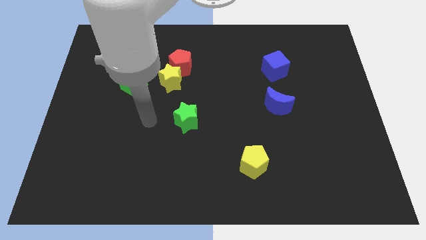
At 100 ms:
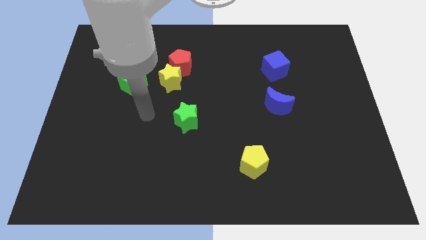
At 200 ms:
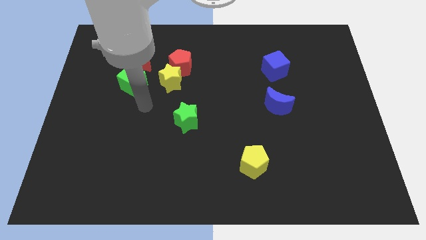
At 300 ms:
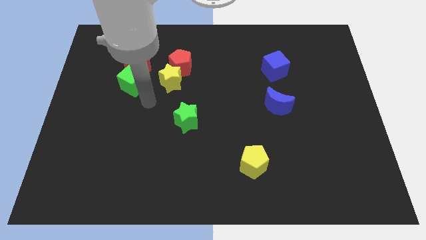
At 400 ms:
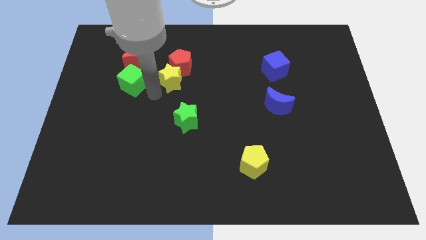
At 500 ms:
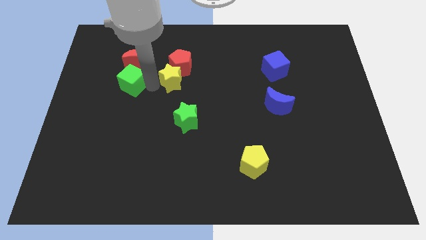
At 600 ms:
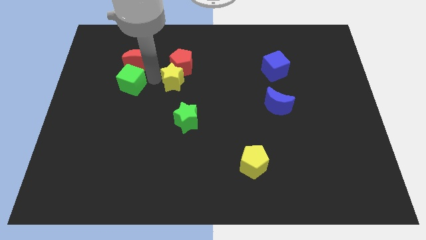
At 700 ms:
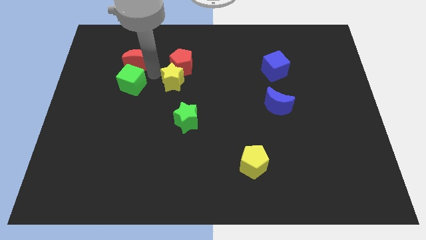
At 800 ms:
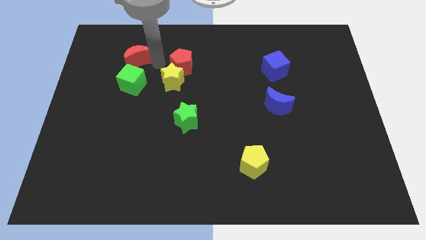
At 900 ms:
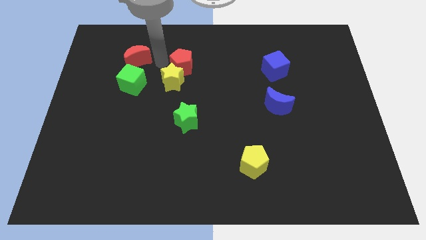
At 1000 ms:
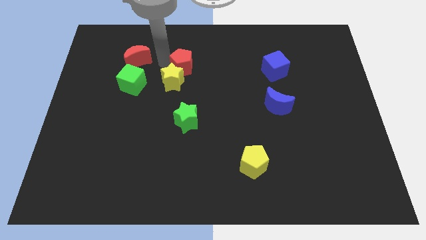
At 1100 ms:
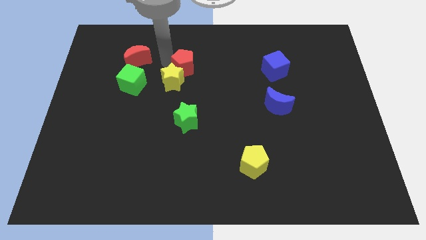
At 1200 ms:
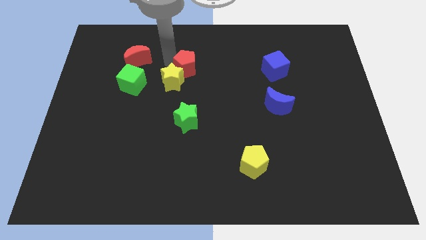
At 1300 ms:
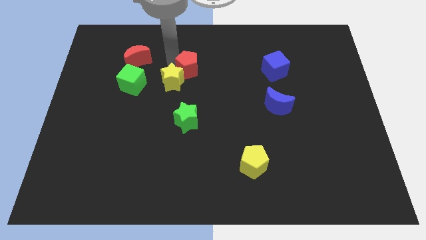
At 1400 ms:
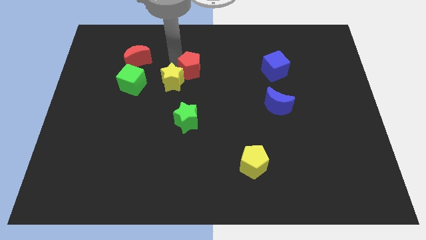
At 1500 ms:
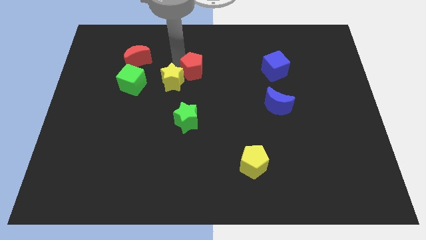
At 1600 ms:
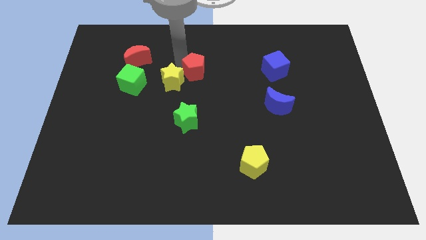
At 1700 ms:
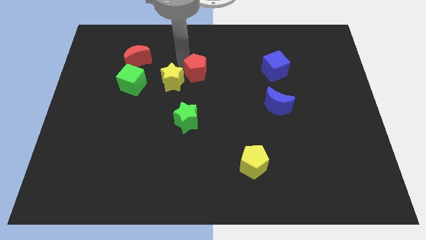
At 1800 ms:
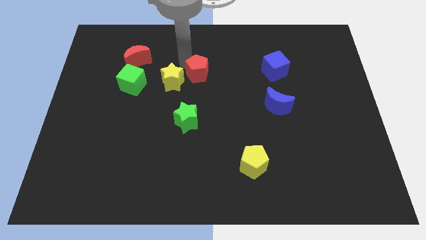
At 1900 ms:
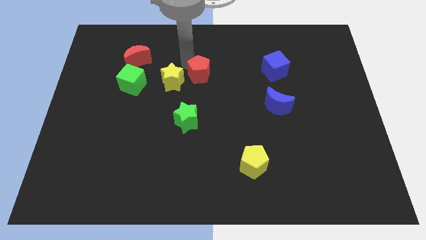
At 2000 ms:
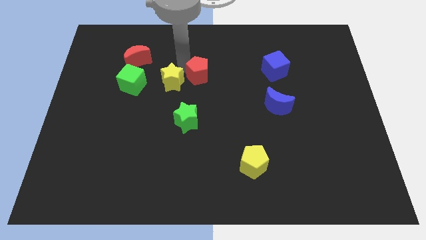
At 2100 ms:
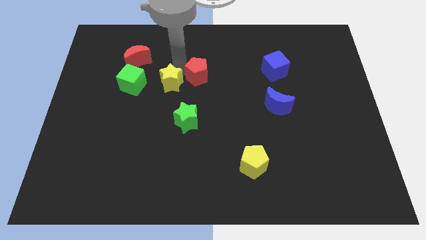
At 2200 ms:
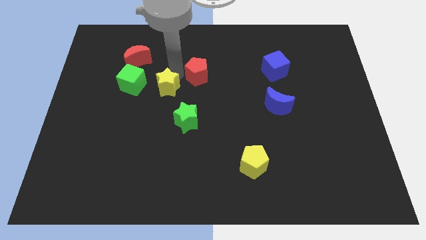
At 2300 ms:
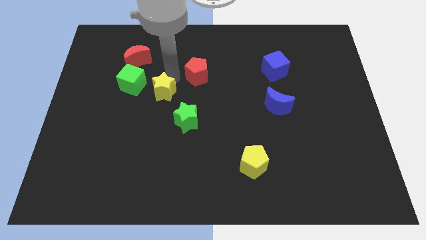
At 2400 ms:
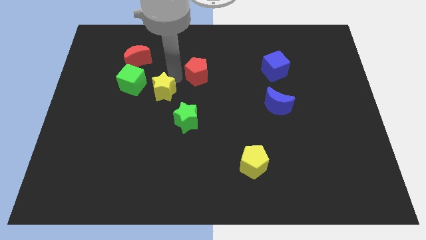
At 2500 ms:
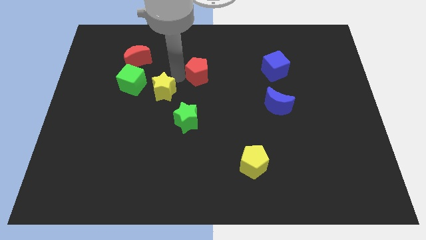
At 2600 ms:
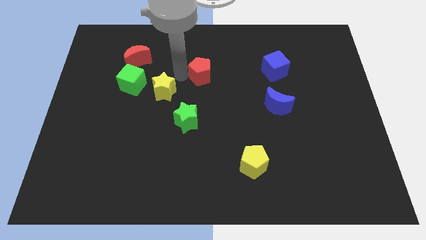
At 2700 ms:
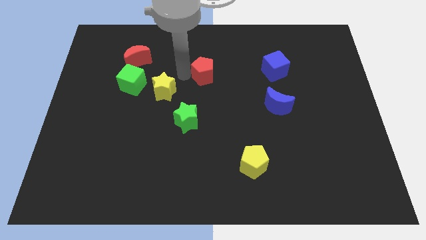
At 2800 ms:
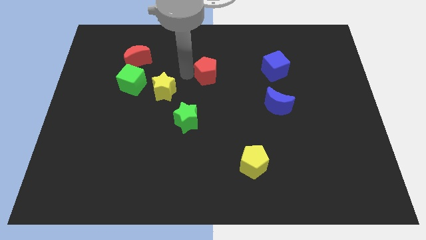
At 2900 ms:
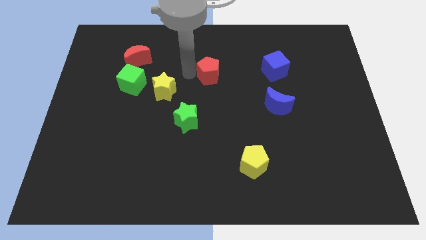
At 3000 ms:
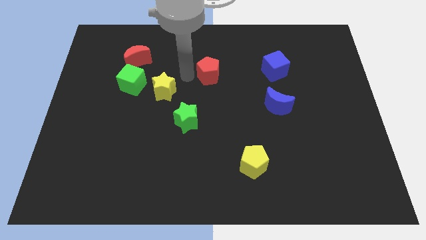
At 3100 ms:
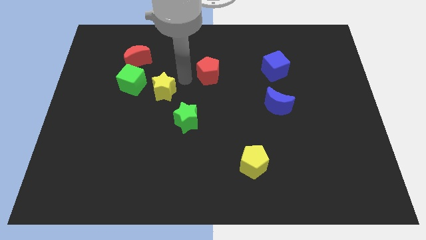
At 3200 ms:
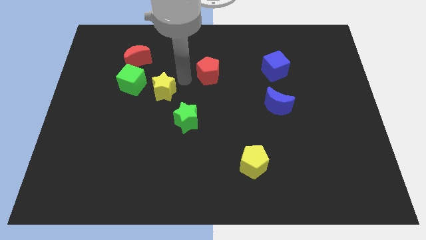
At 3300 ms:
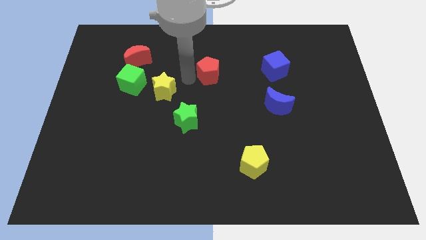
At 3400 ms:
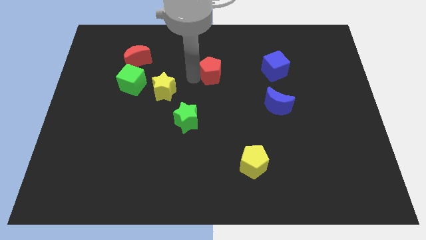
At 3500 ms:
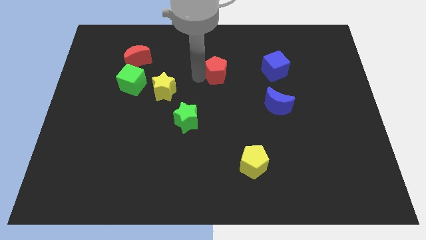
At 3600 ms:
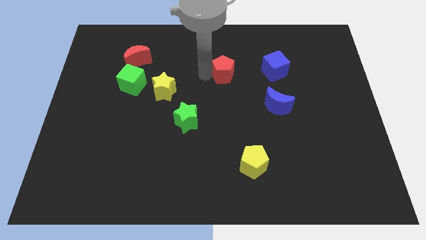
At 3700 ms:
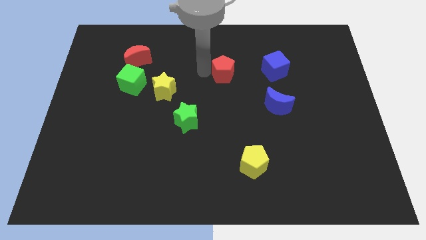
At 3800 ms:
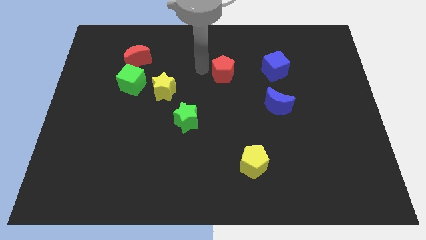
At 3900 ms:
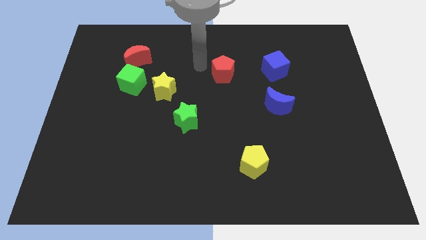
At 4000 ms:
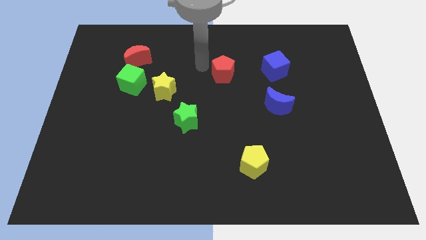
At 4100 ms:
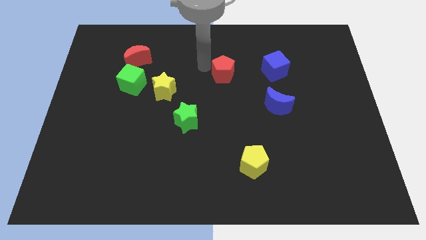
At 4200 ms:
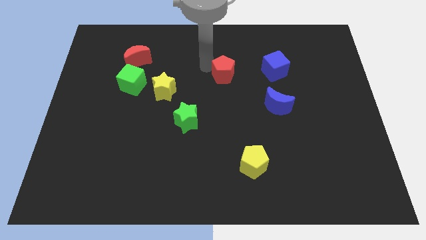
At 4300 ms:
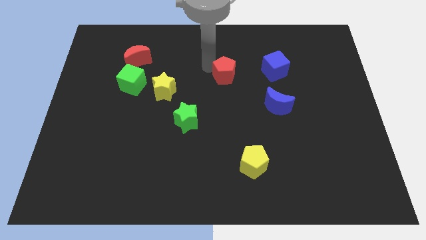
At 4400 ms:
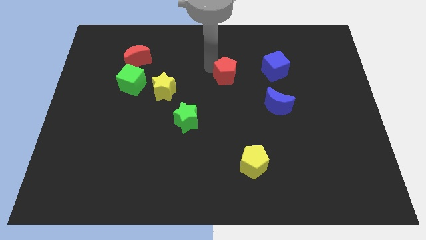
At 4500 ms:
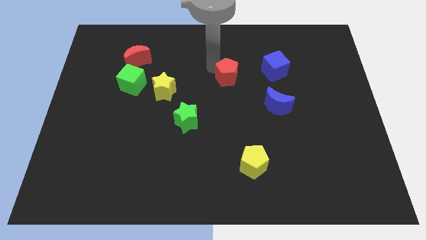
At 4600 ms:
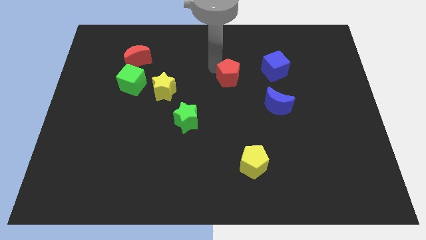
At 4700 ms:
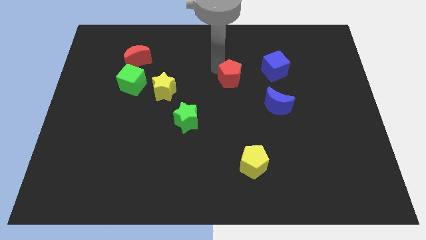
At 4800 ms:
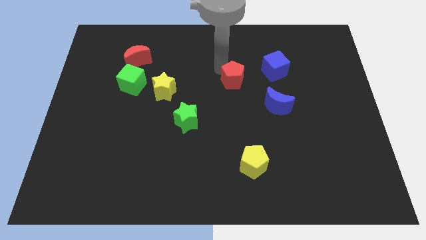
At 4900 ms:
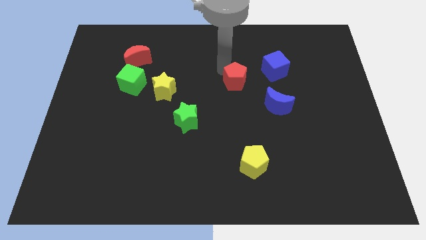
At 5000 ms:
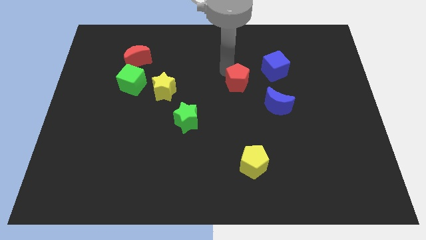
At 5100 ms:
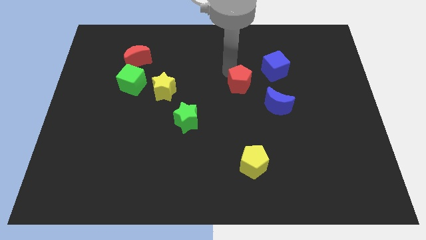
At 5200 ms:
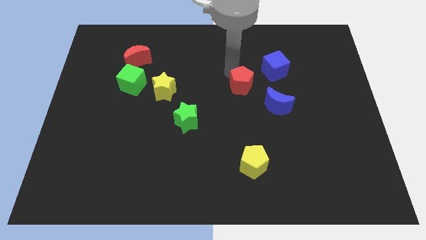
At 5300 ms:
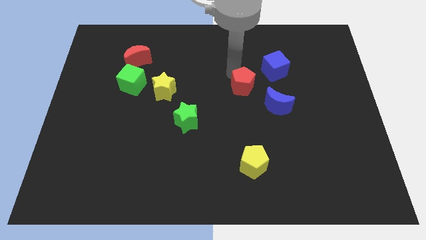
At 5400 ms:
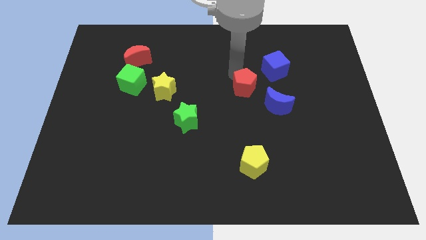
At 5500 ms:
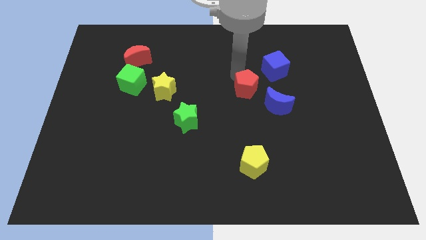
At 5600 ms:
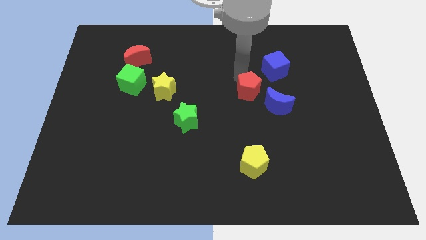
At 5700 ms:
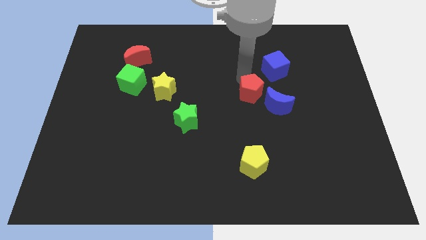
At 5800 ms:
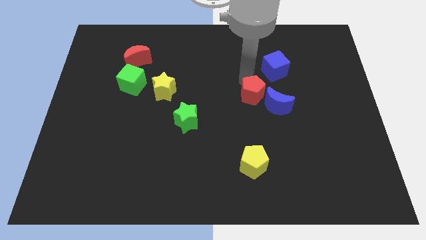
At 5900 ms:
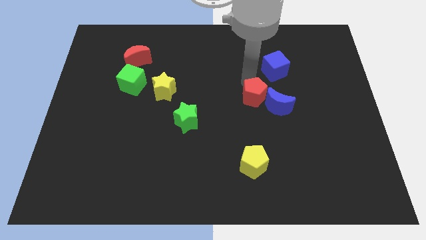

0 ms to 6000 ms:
put the red pentagon to the blue moon

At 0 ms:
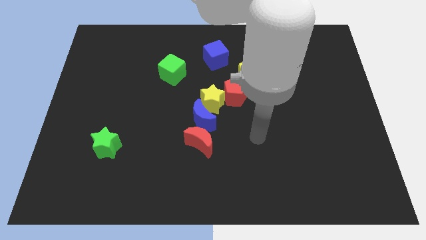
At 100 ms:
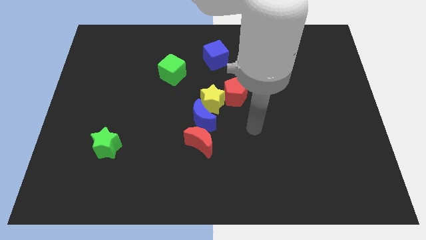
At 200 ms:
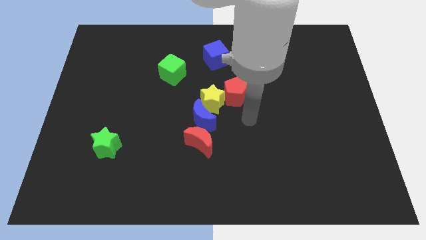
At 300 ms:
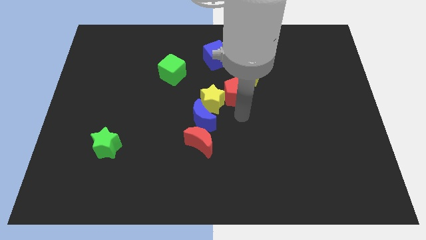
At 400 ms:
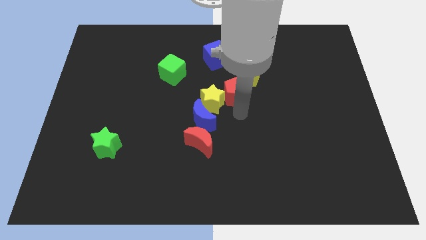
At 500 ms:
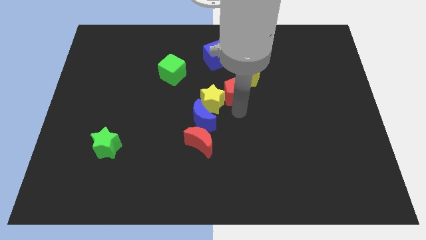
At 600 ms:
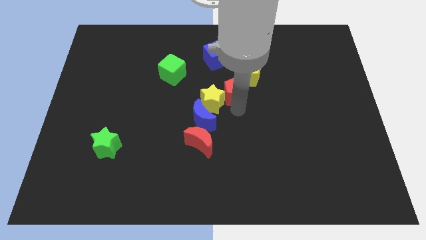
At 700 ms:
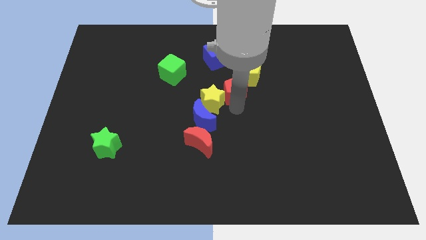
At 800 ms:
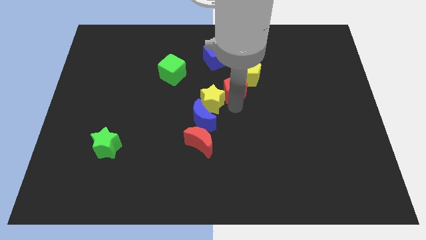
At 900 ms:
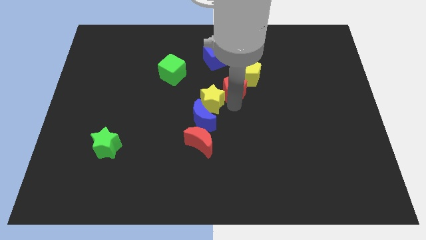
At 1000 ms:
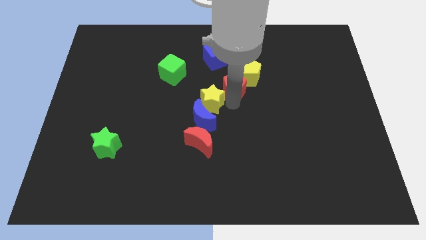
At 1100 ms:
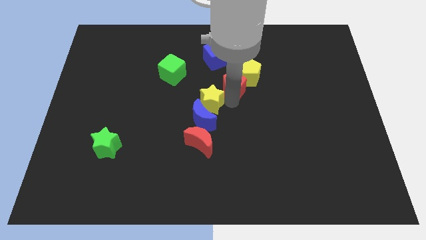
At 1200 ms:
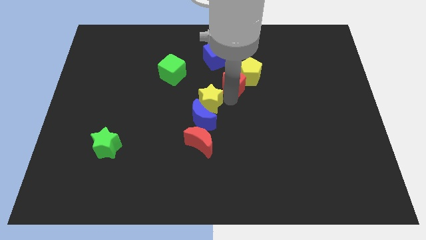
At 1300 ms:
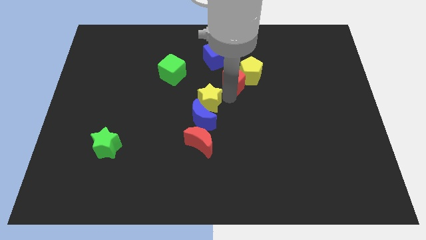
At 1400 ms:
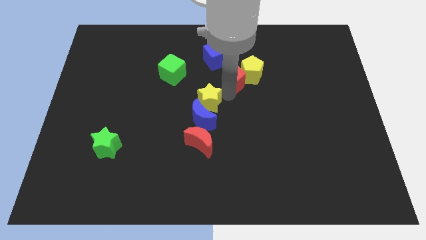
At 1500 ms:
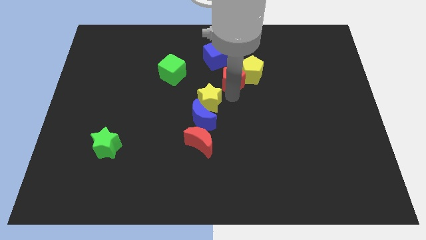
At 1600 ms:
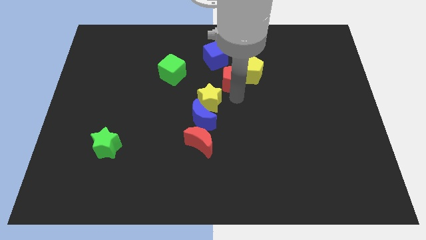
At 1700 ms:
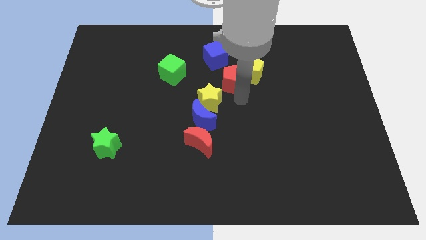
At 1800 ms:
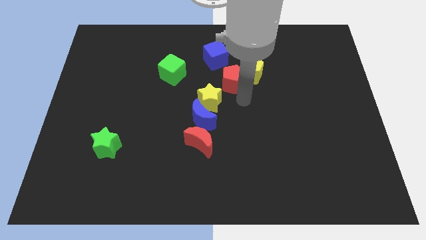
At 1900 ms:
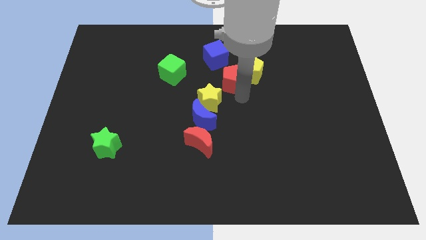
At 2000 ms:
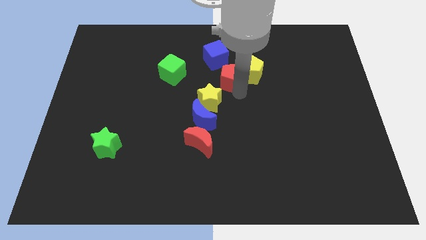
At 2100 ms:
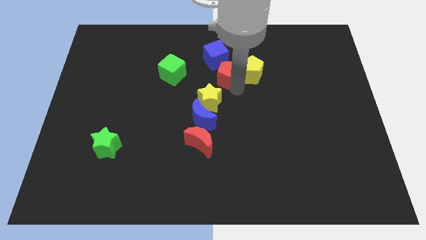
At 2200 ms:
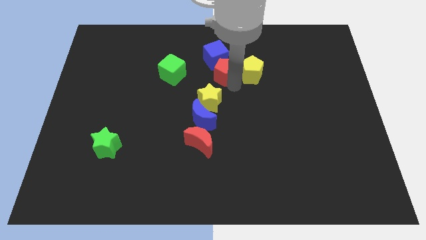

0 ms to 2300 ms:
slide the red pentagon next to the blue cube

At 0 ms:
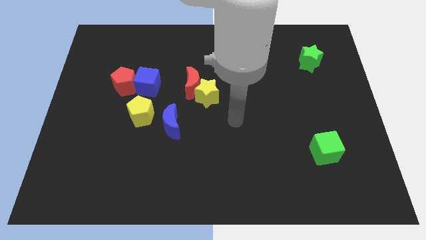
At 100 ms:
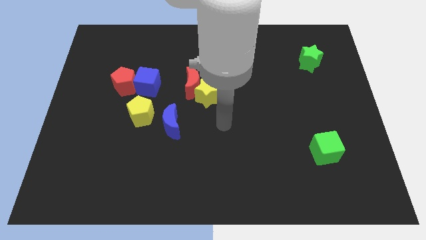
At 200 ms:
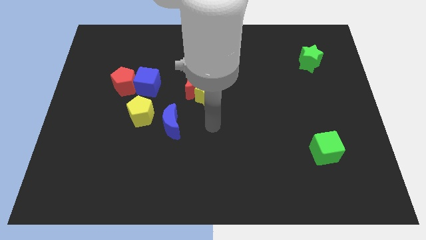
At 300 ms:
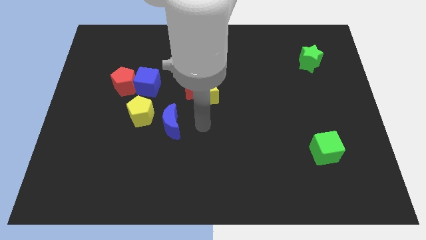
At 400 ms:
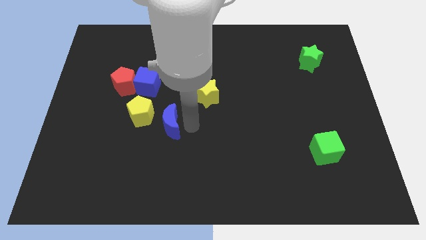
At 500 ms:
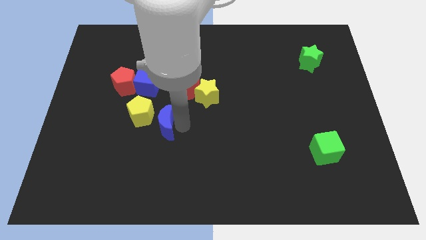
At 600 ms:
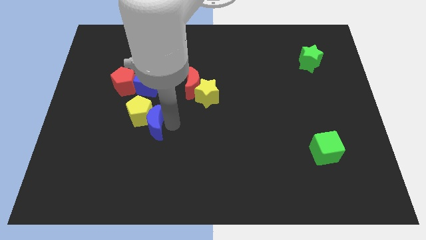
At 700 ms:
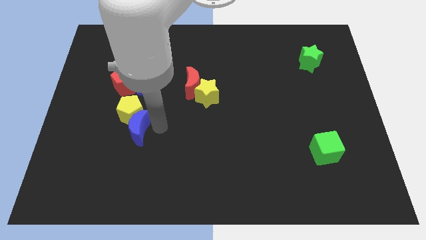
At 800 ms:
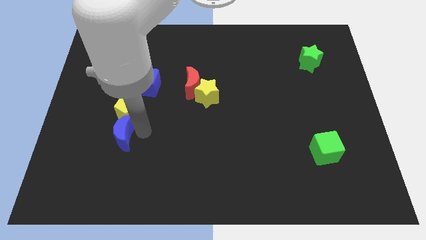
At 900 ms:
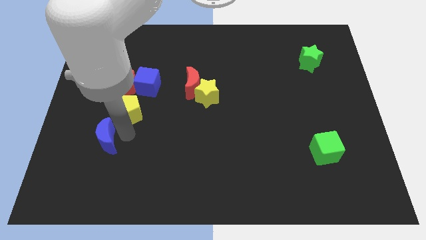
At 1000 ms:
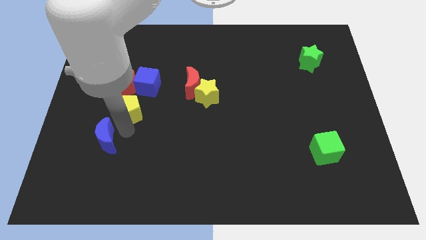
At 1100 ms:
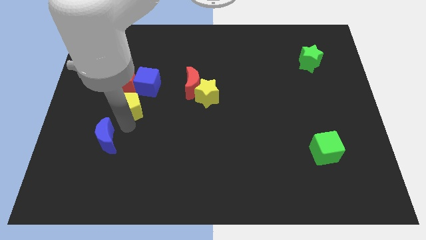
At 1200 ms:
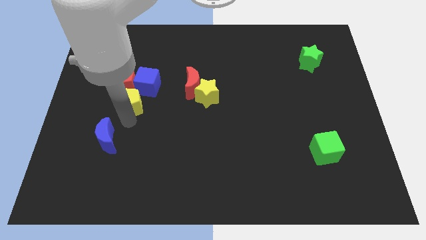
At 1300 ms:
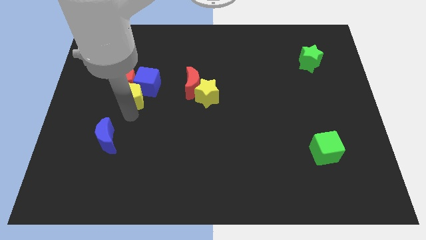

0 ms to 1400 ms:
push the yellow pentagon towards the red pentagon
